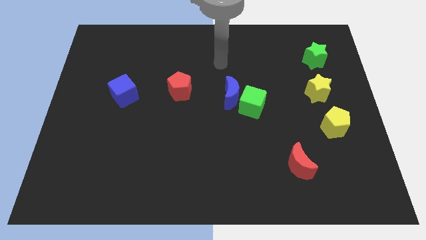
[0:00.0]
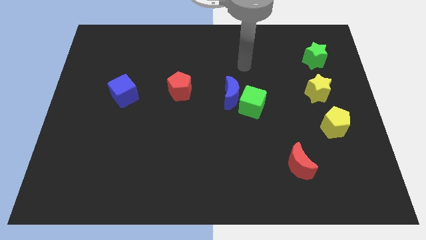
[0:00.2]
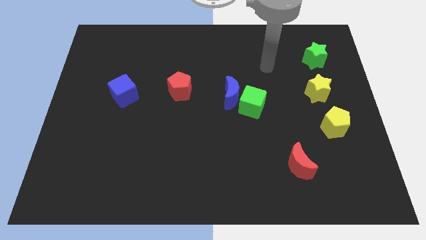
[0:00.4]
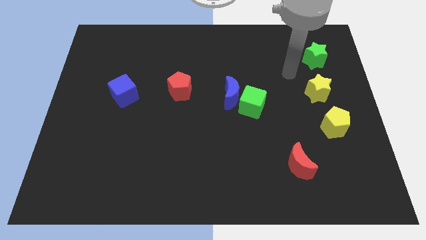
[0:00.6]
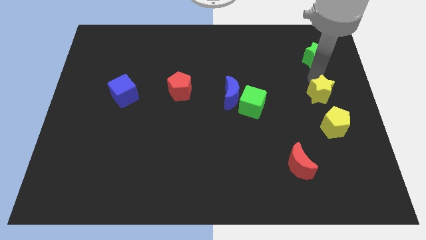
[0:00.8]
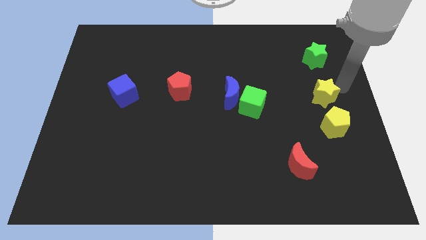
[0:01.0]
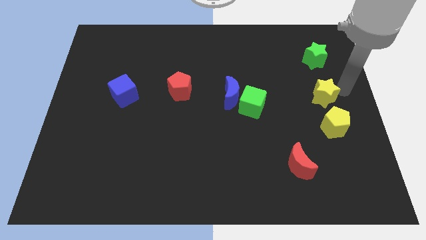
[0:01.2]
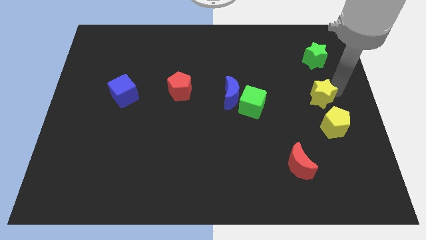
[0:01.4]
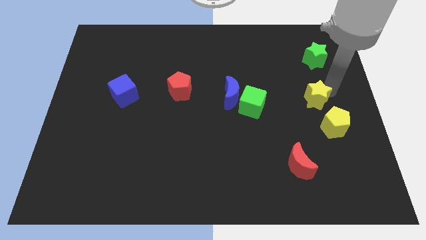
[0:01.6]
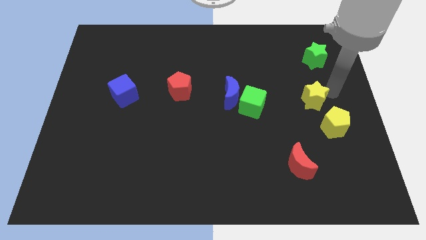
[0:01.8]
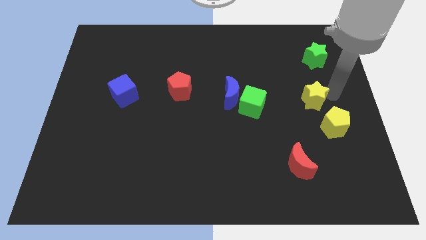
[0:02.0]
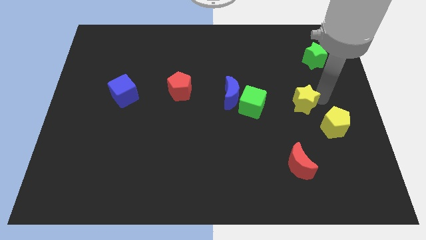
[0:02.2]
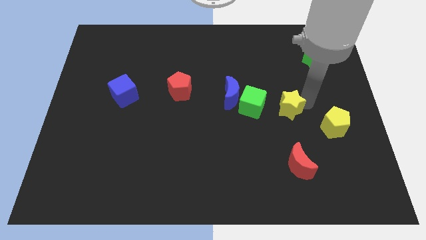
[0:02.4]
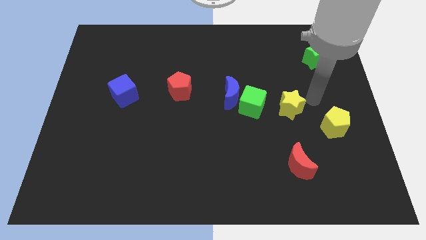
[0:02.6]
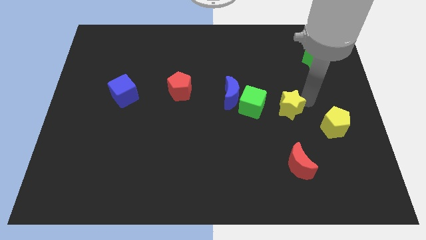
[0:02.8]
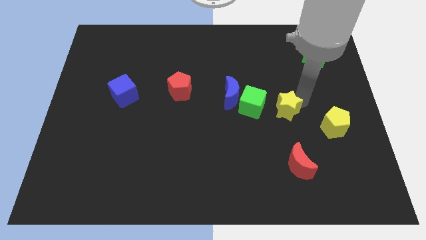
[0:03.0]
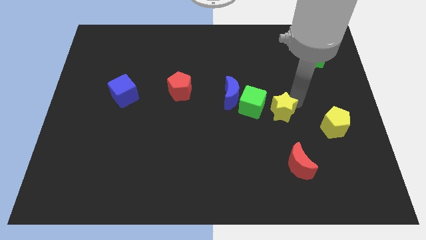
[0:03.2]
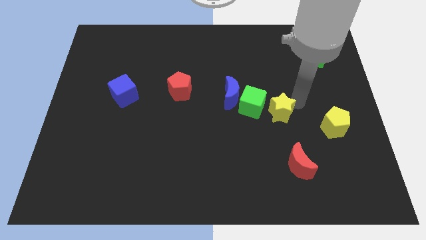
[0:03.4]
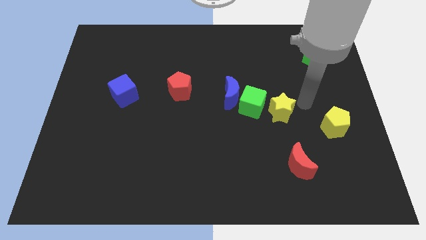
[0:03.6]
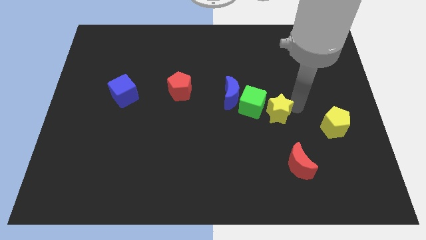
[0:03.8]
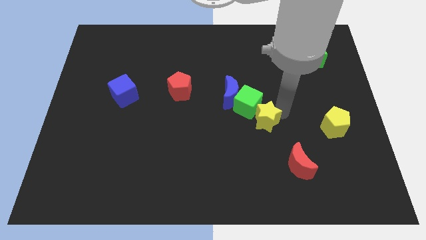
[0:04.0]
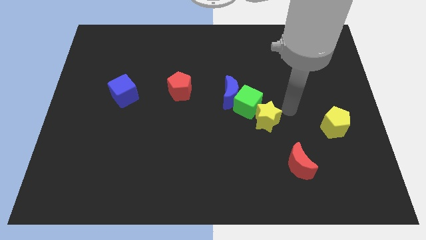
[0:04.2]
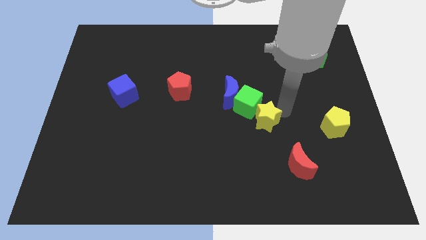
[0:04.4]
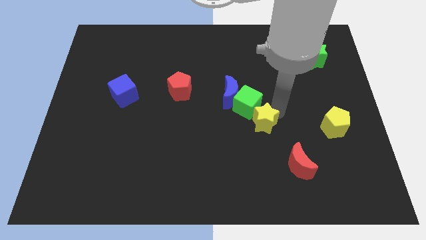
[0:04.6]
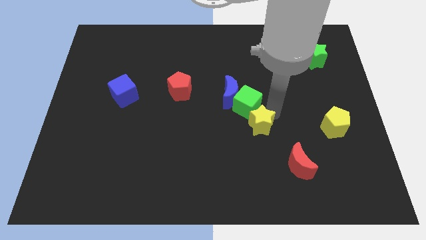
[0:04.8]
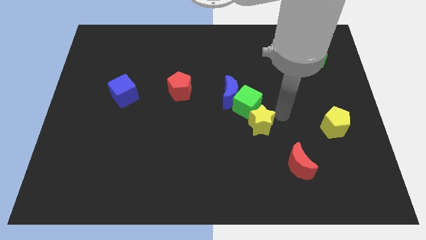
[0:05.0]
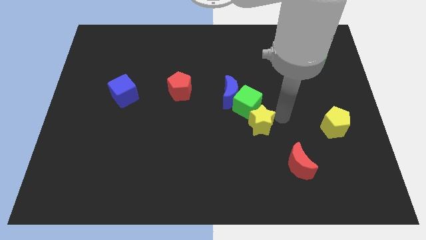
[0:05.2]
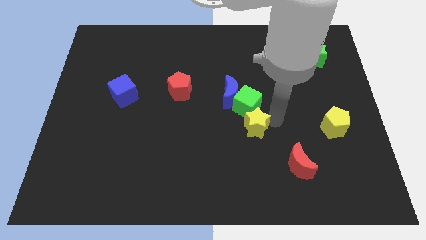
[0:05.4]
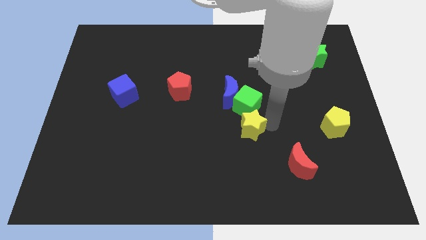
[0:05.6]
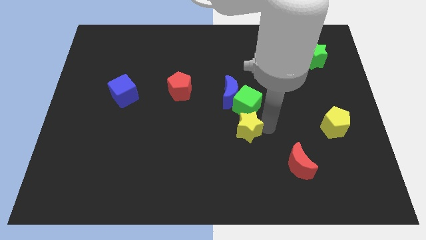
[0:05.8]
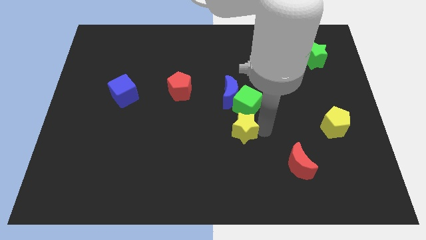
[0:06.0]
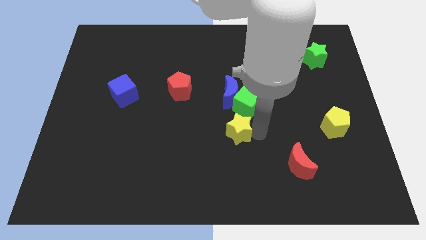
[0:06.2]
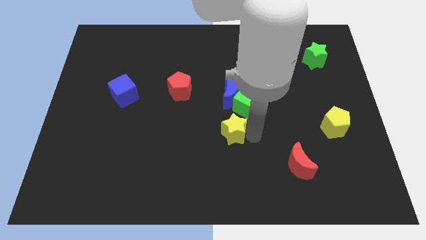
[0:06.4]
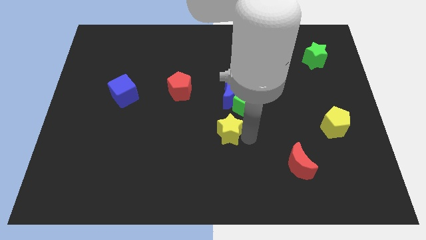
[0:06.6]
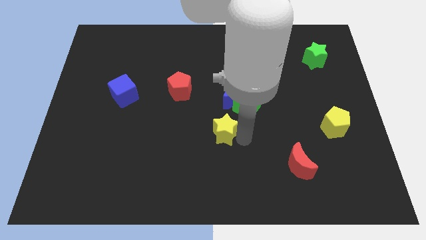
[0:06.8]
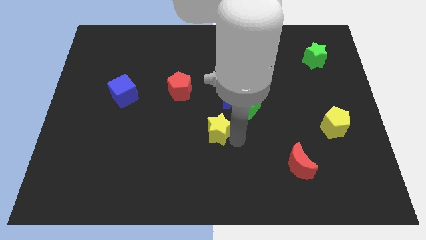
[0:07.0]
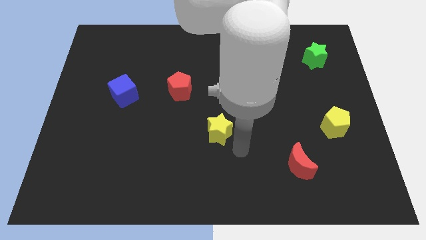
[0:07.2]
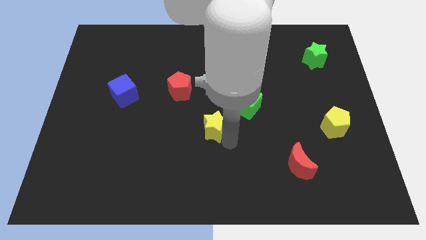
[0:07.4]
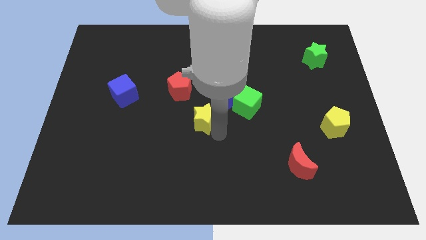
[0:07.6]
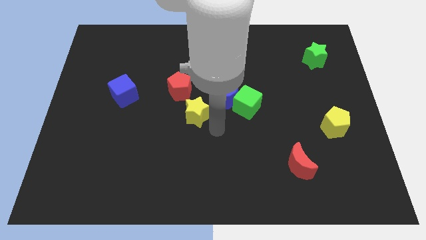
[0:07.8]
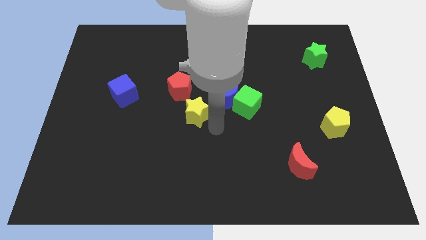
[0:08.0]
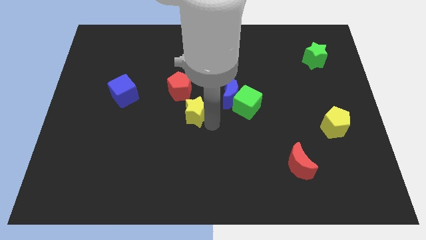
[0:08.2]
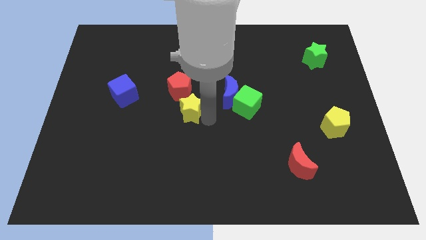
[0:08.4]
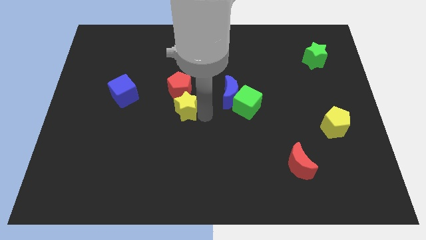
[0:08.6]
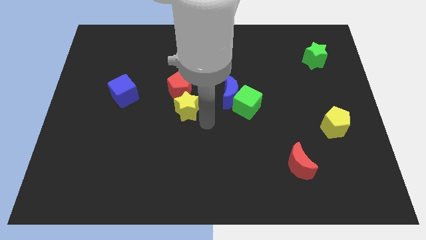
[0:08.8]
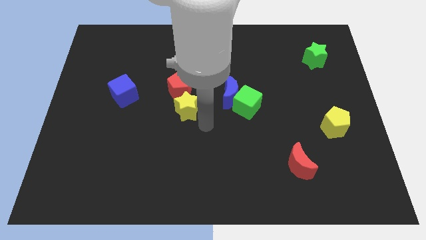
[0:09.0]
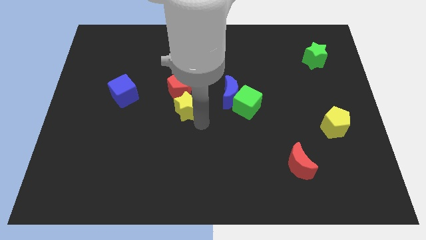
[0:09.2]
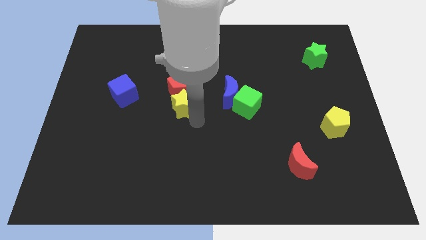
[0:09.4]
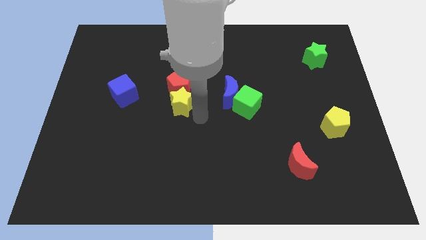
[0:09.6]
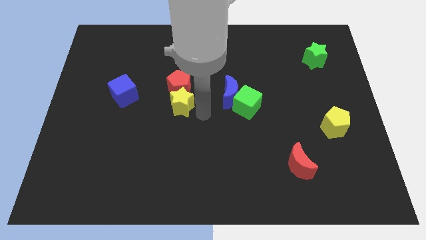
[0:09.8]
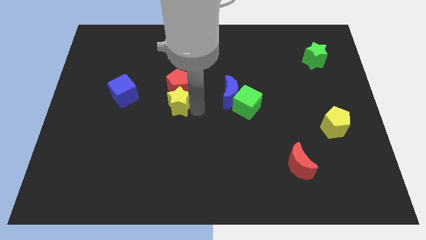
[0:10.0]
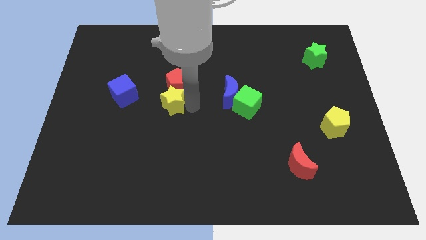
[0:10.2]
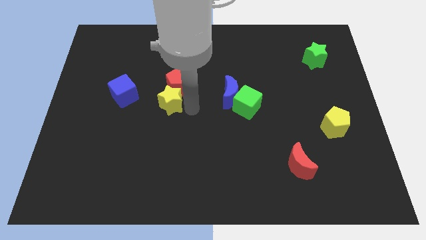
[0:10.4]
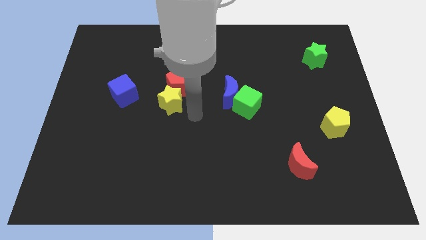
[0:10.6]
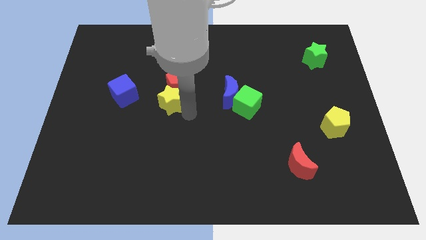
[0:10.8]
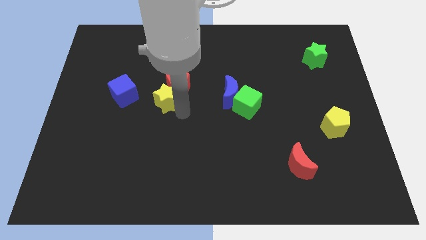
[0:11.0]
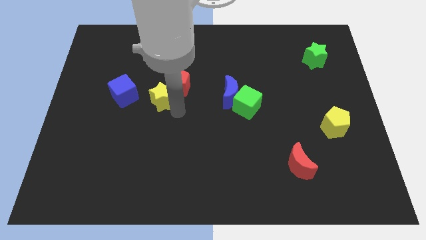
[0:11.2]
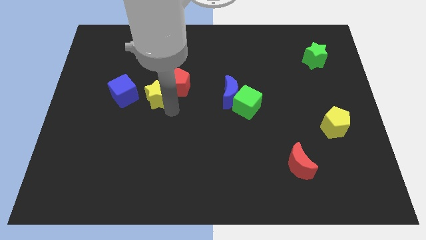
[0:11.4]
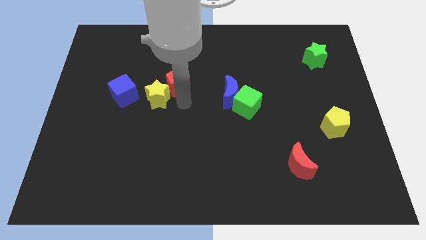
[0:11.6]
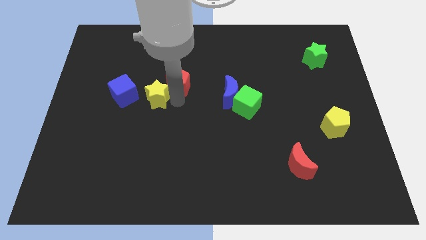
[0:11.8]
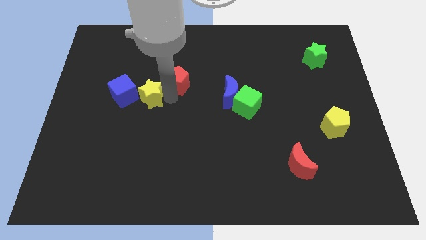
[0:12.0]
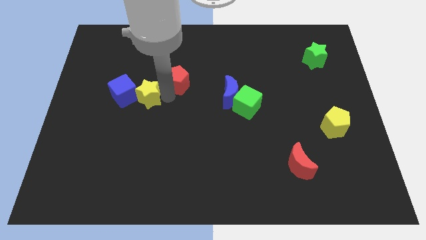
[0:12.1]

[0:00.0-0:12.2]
move the yellow star to the blue cube

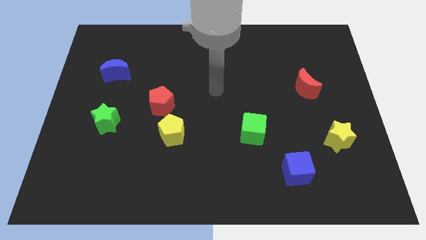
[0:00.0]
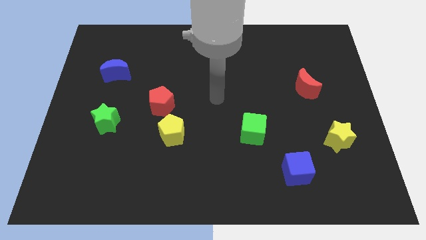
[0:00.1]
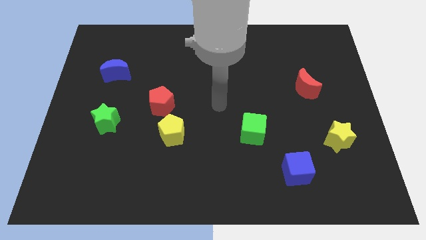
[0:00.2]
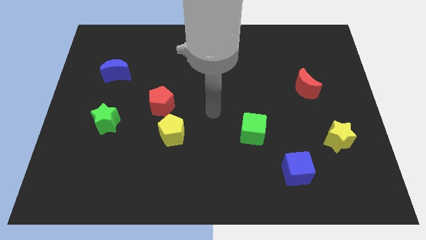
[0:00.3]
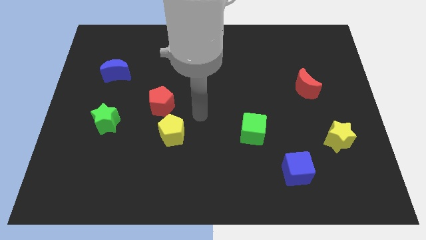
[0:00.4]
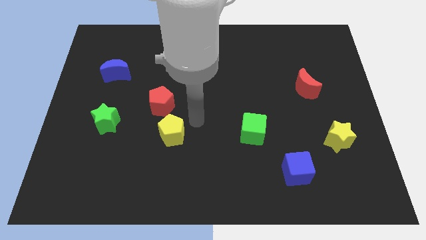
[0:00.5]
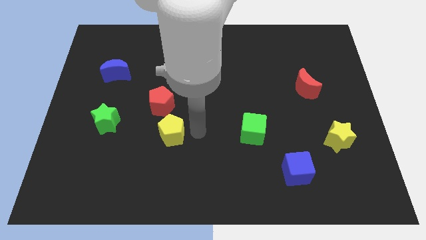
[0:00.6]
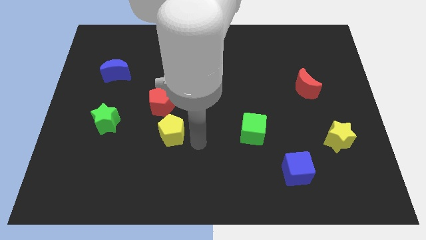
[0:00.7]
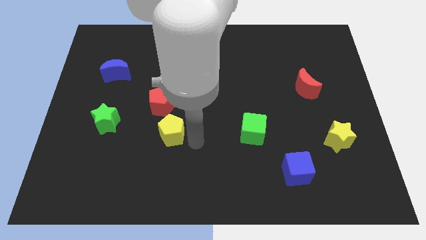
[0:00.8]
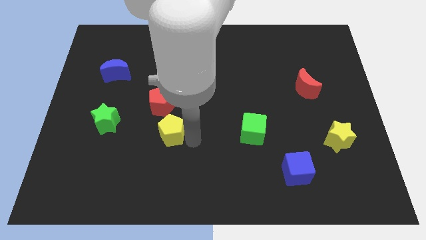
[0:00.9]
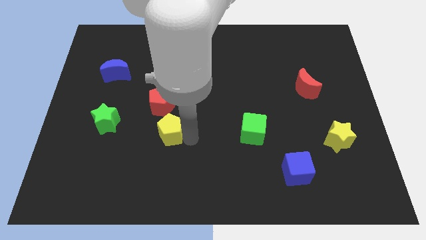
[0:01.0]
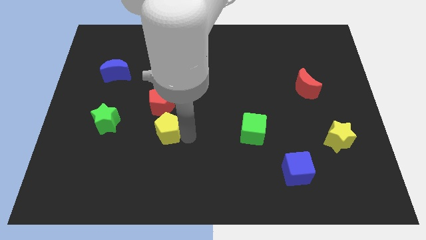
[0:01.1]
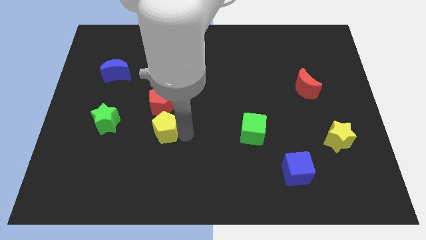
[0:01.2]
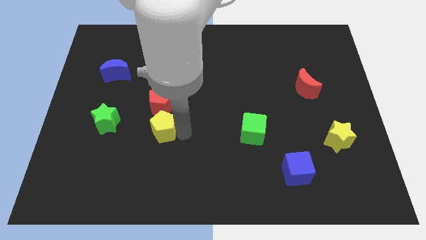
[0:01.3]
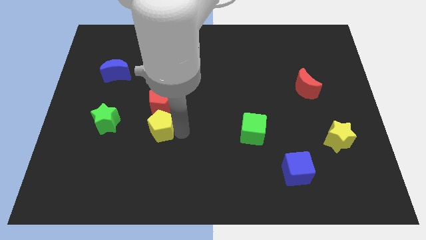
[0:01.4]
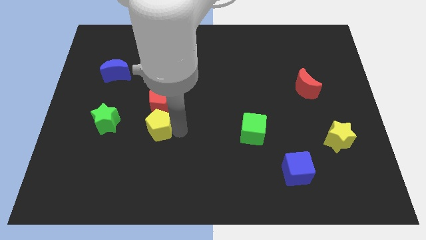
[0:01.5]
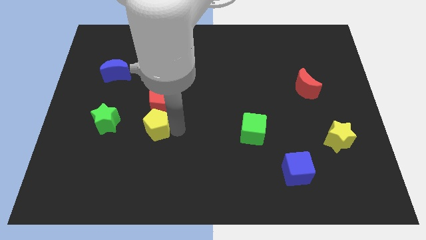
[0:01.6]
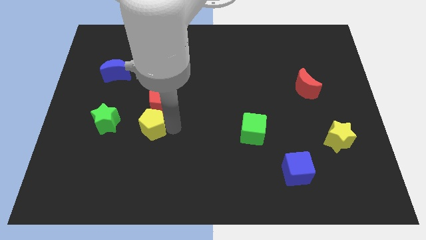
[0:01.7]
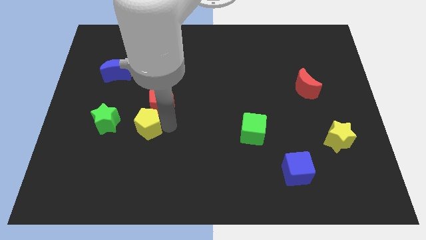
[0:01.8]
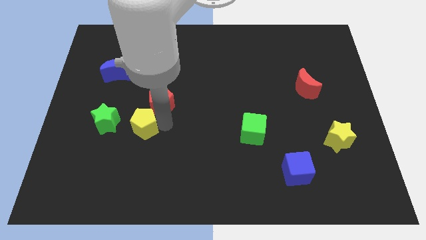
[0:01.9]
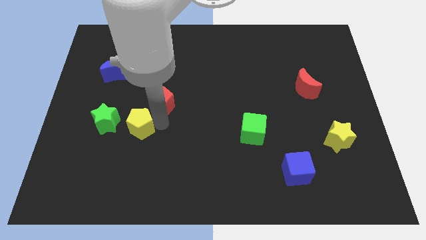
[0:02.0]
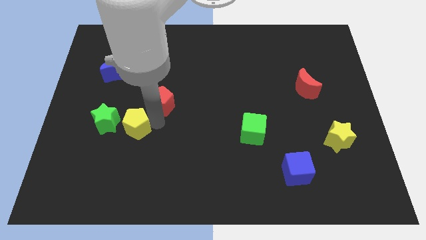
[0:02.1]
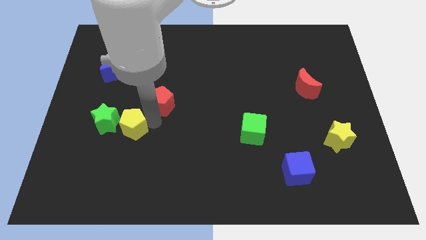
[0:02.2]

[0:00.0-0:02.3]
move the yellow pentagon close to the green star

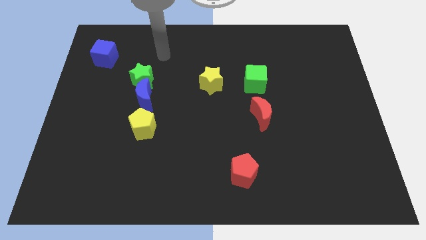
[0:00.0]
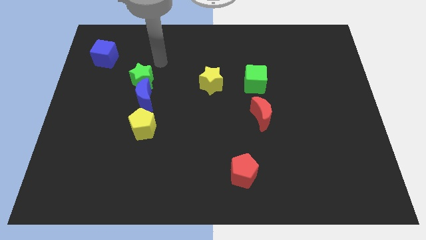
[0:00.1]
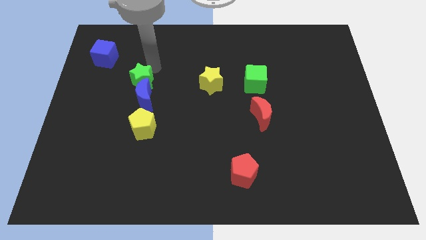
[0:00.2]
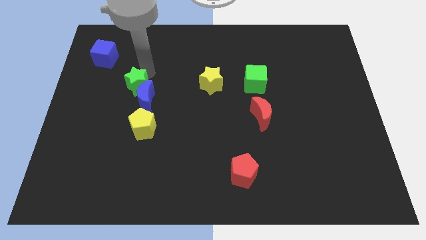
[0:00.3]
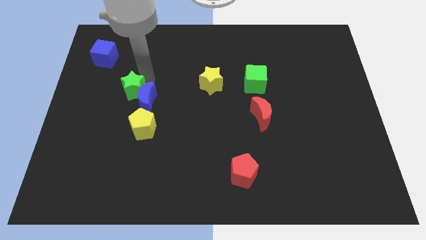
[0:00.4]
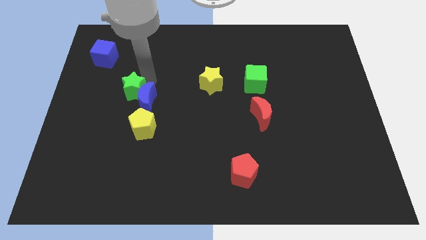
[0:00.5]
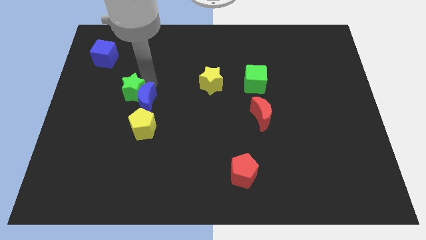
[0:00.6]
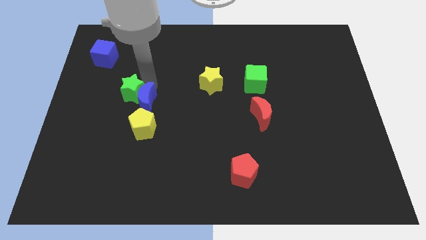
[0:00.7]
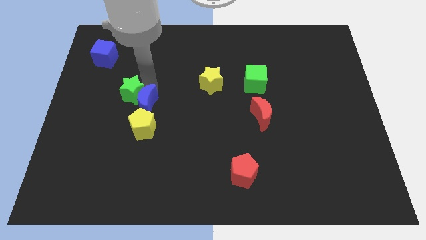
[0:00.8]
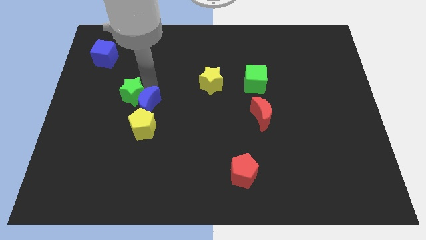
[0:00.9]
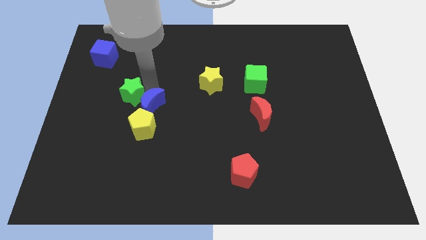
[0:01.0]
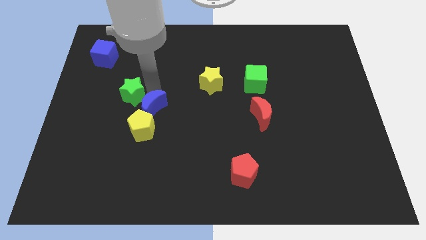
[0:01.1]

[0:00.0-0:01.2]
slide the blue moon close to the yellow pentagon
